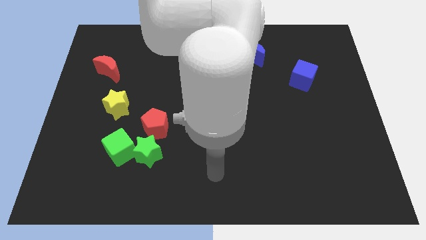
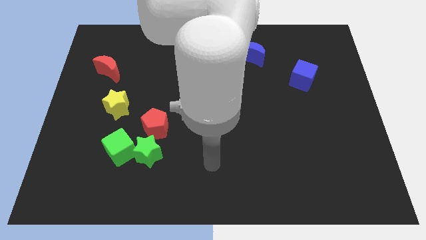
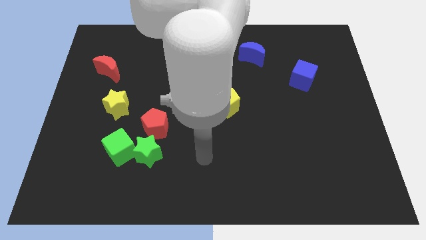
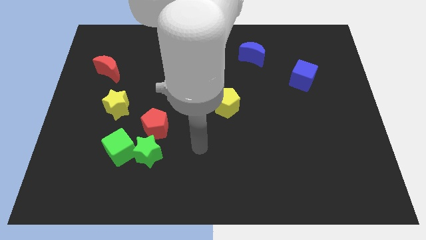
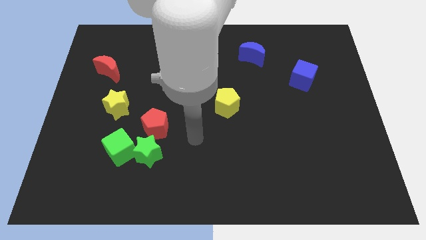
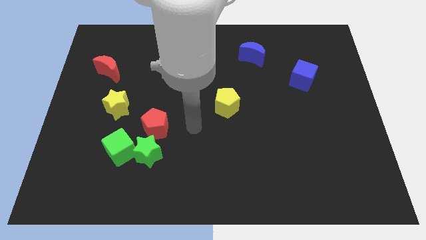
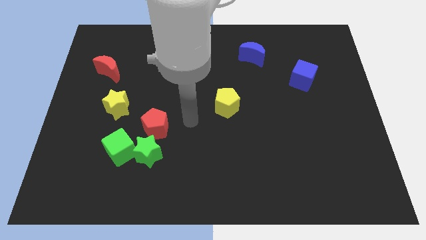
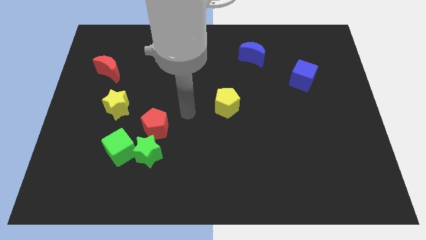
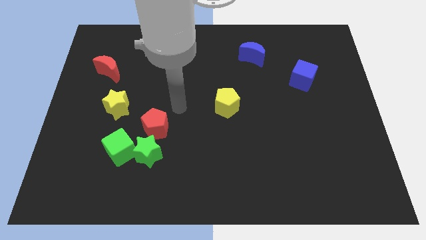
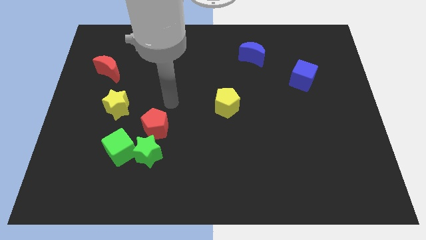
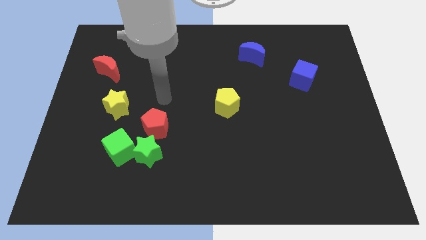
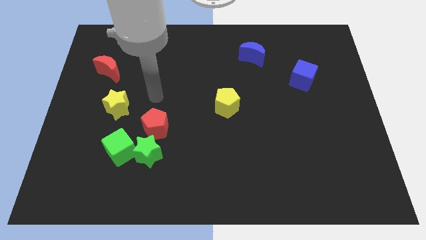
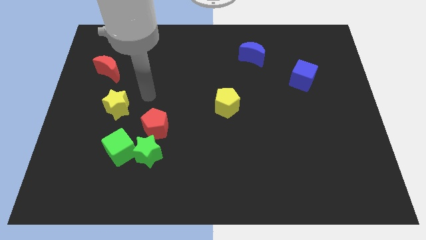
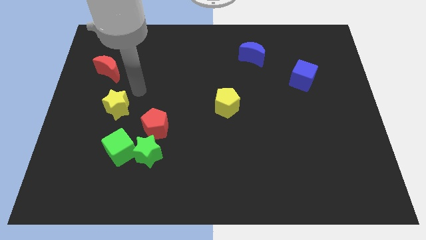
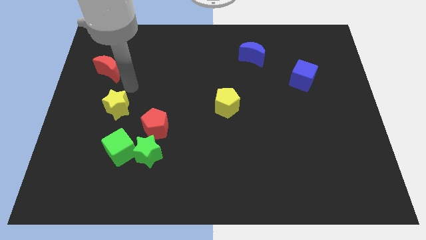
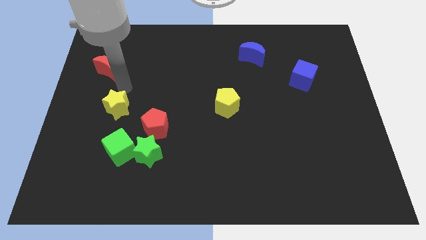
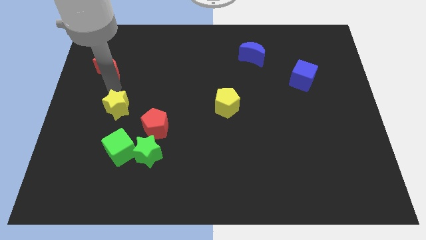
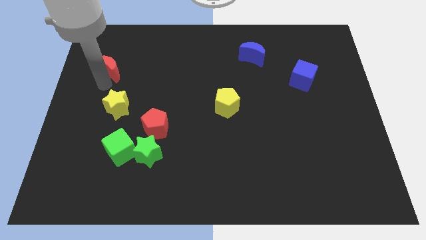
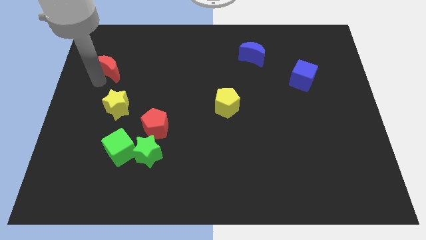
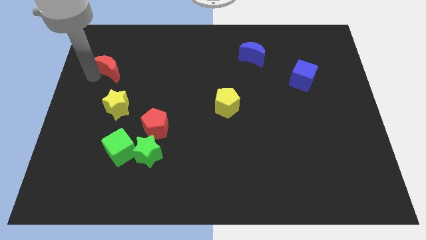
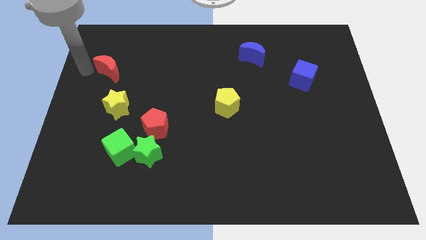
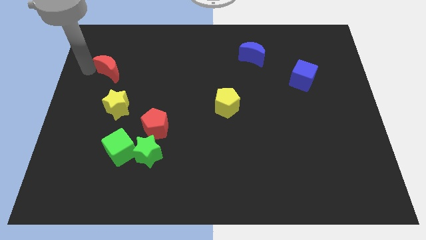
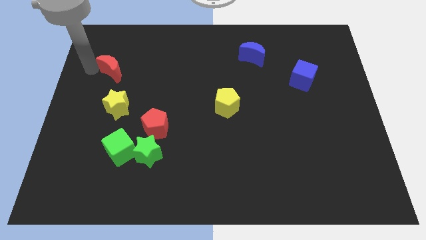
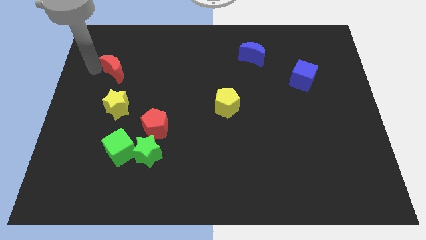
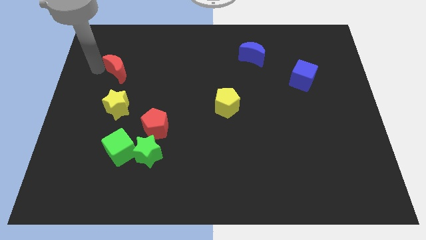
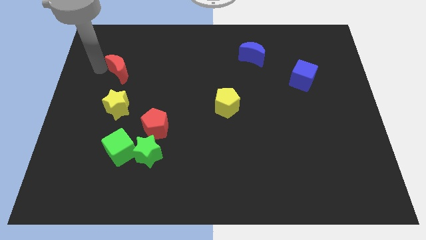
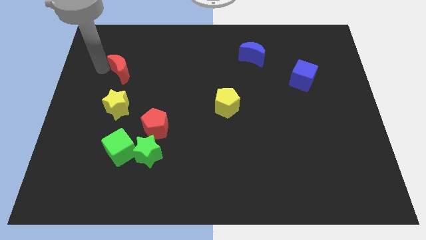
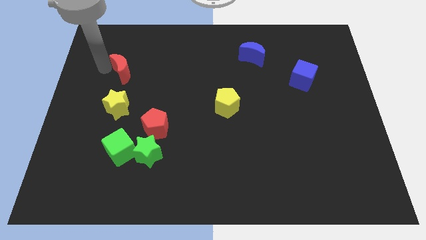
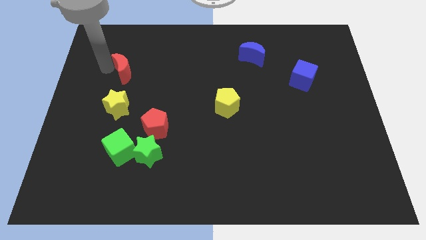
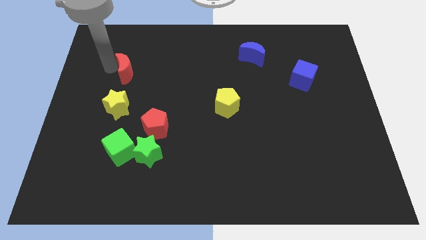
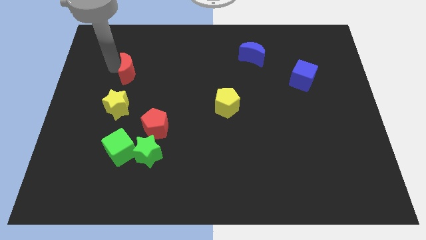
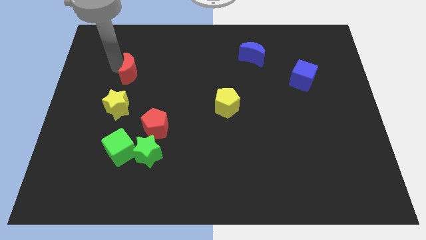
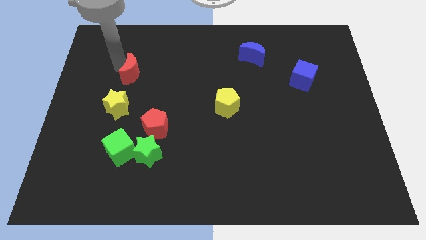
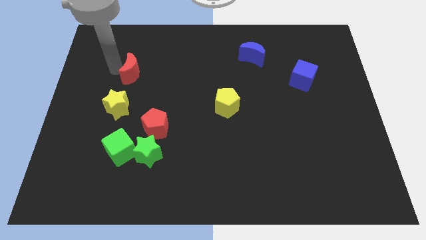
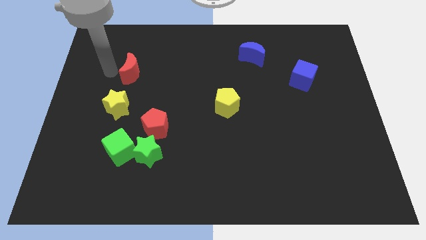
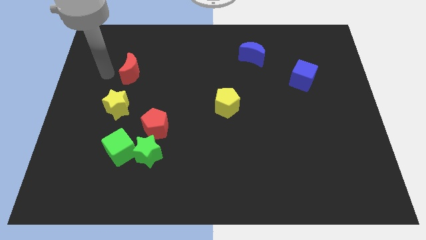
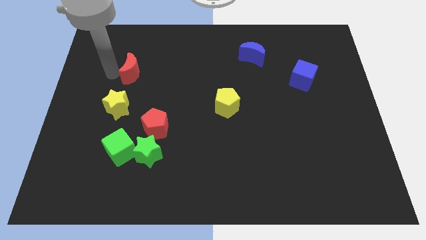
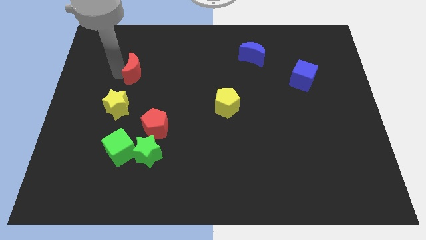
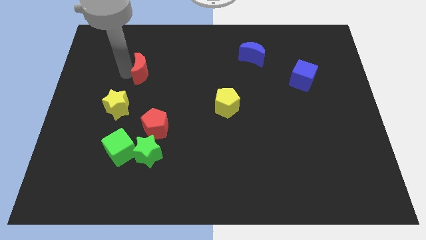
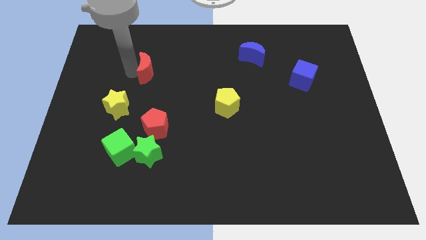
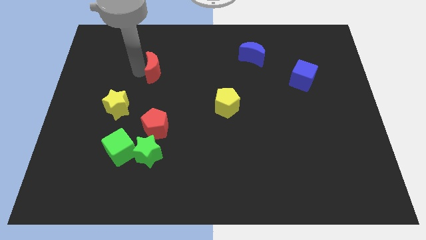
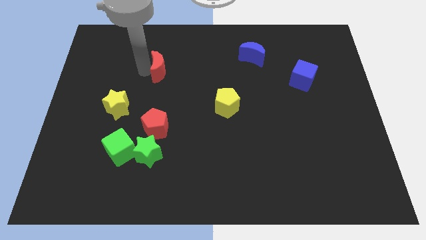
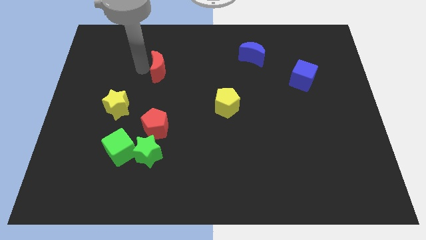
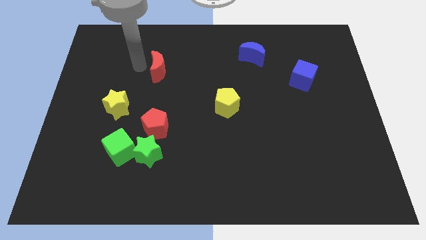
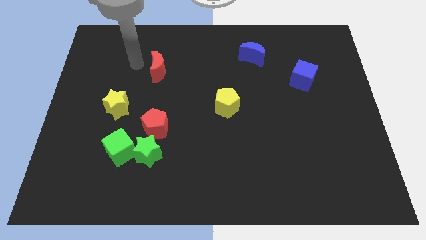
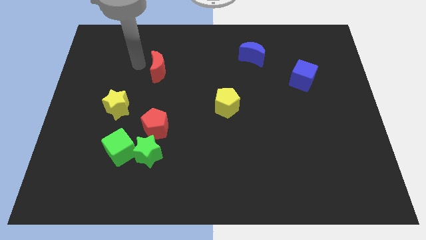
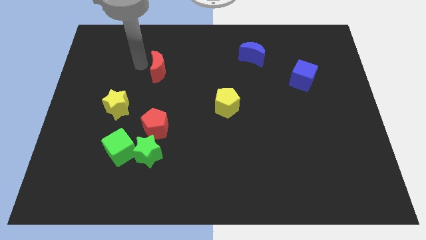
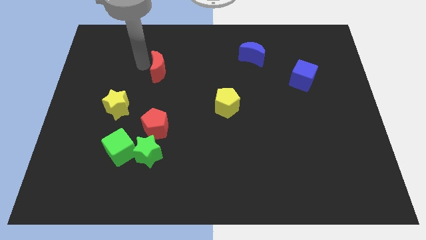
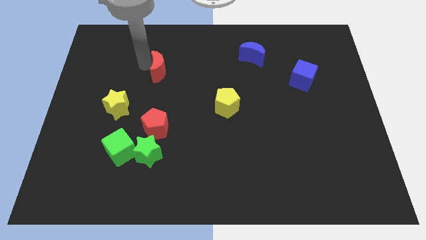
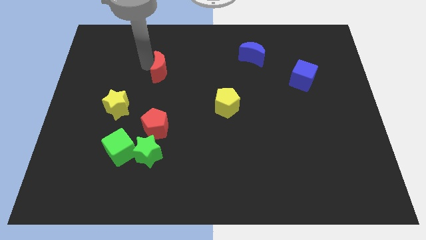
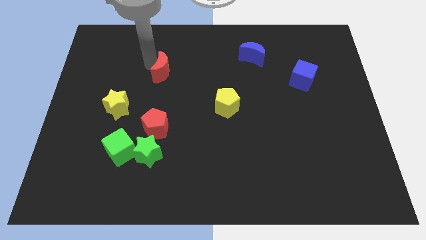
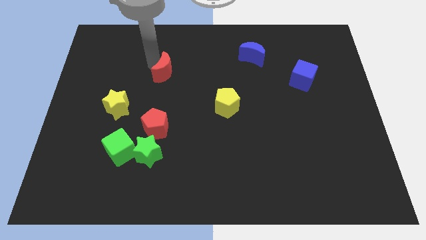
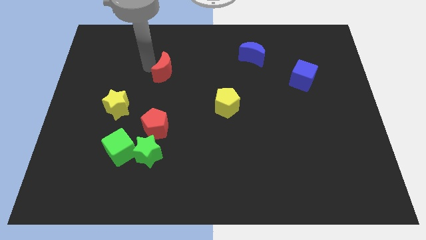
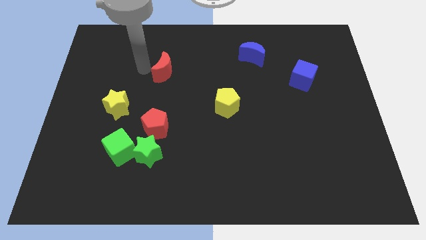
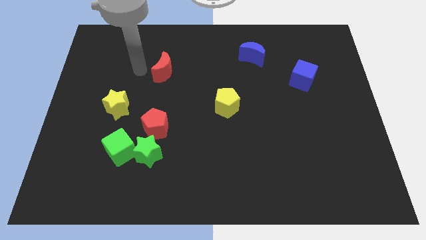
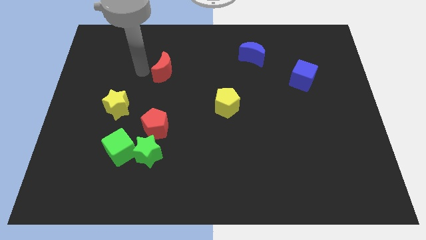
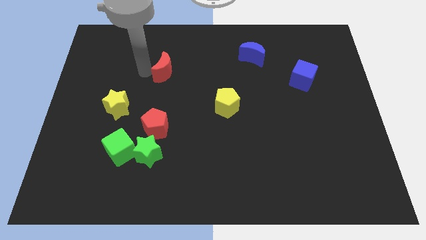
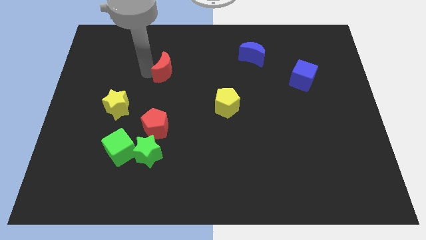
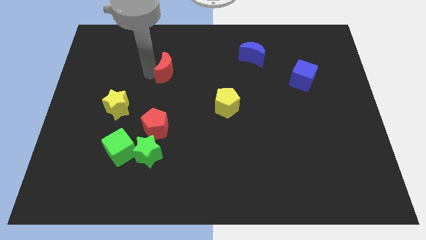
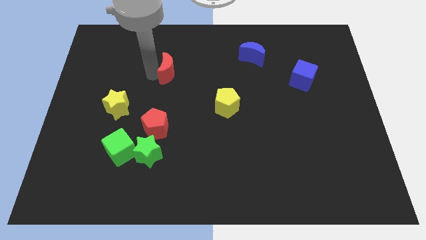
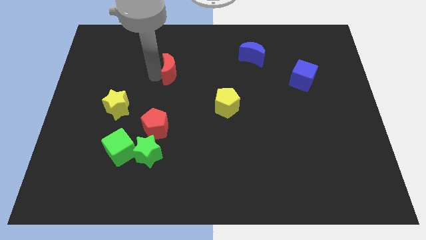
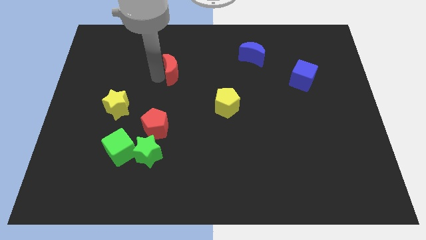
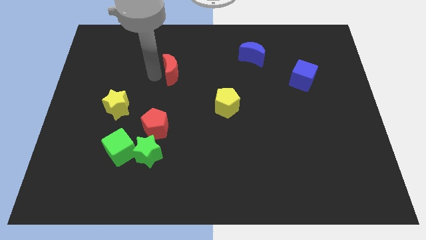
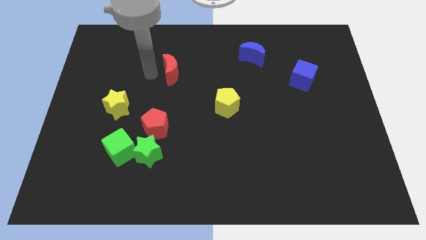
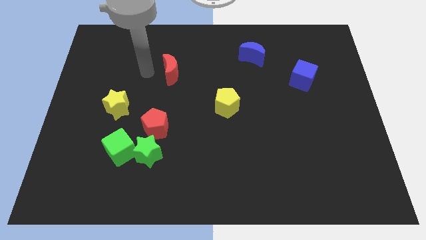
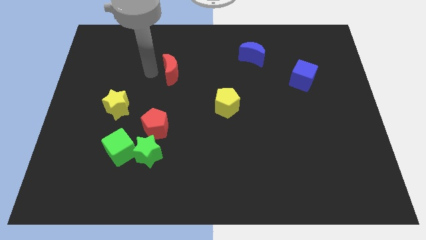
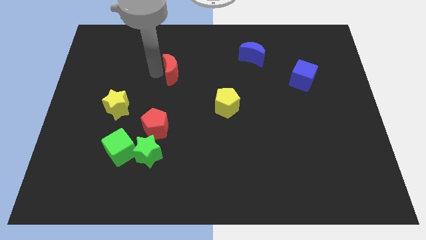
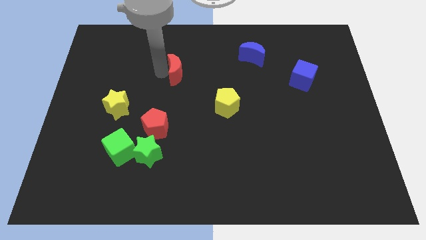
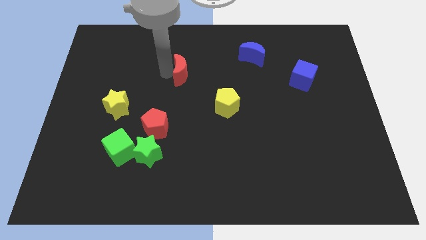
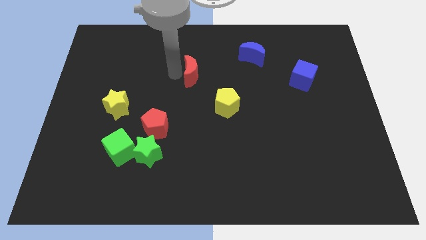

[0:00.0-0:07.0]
move the red moon right

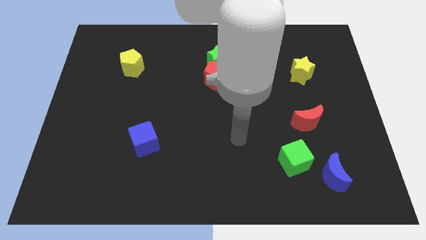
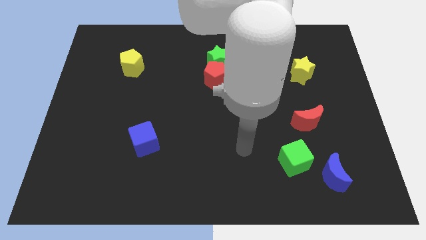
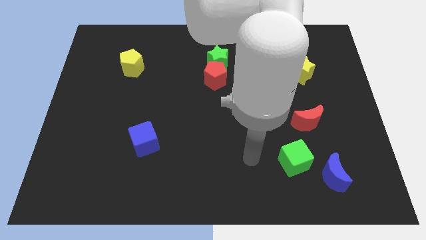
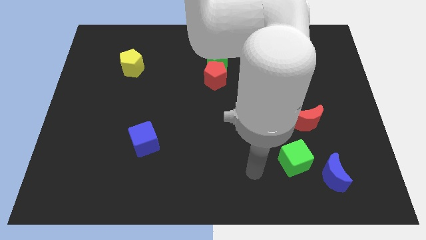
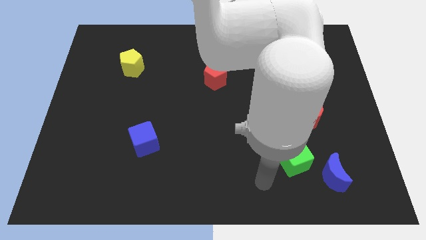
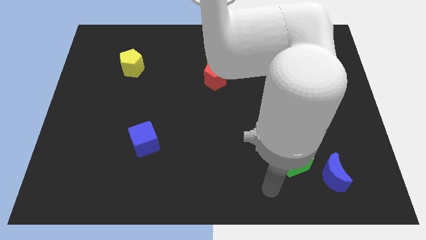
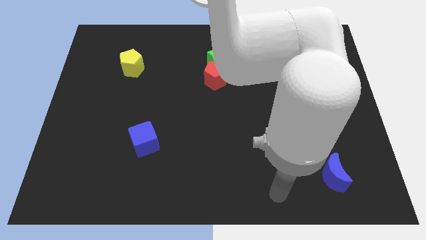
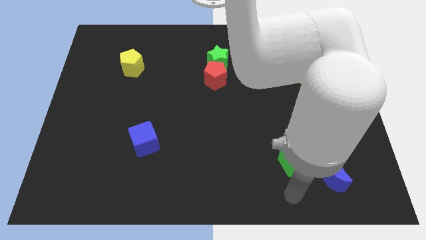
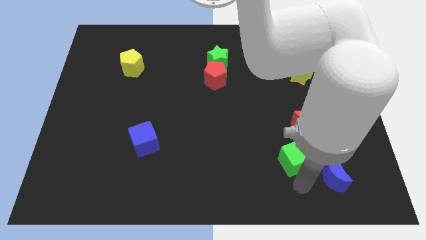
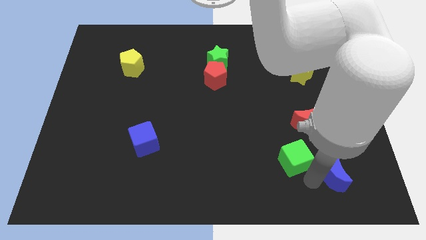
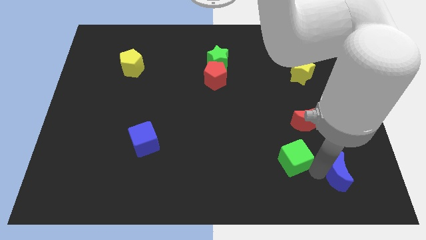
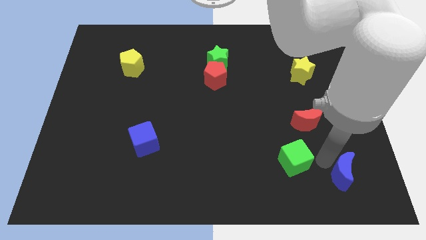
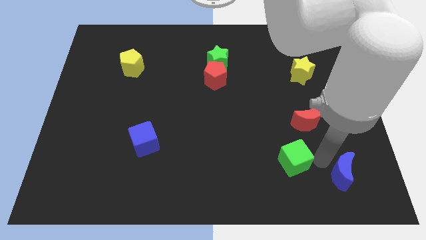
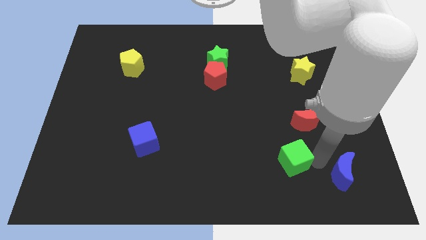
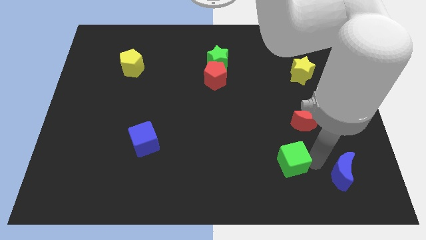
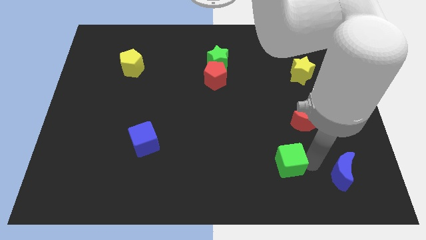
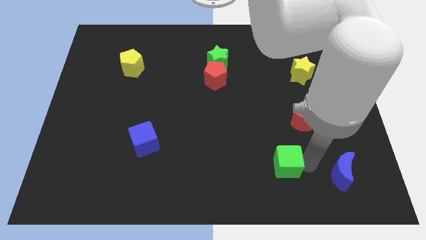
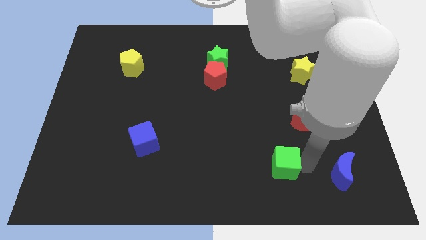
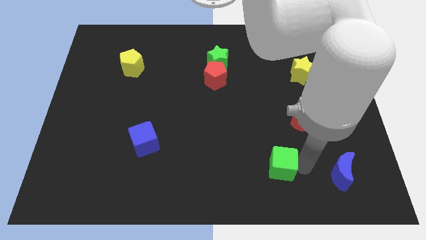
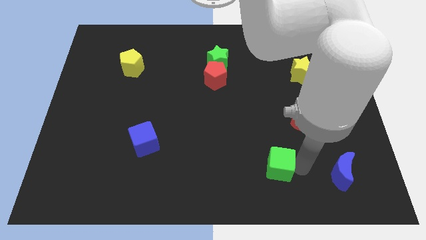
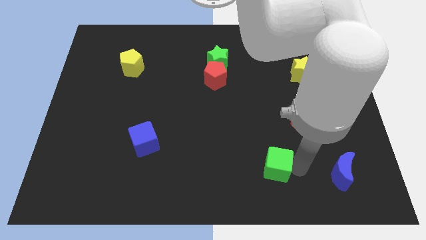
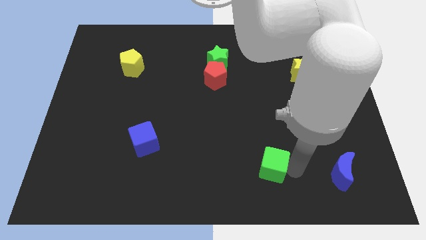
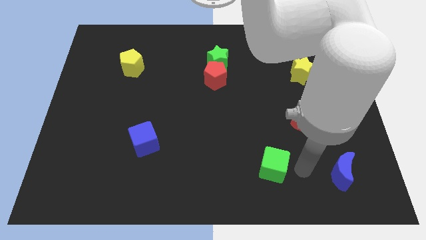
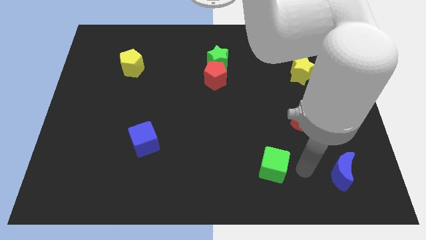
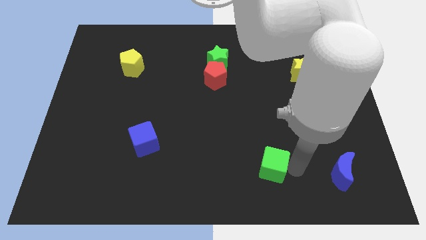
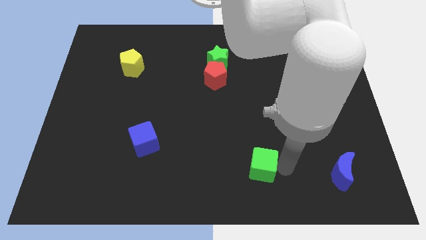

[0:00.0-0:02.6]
push the green cube to the left slightly
